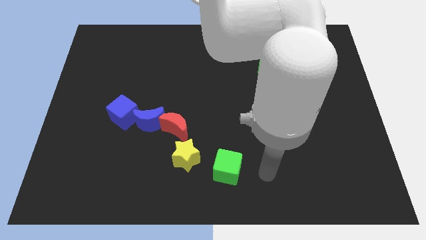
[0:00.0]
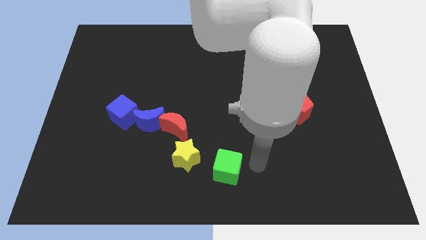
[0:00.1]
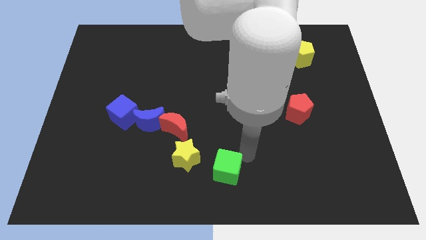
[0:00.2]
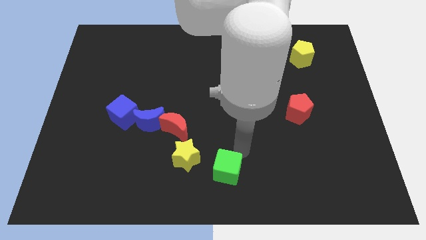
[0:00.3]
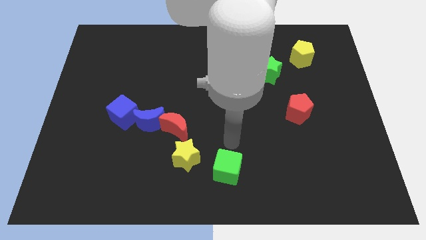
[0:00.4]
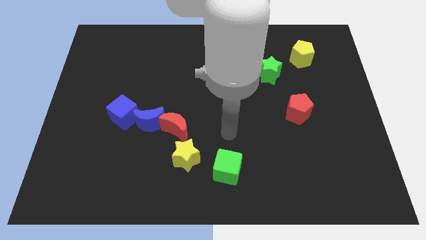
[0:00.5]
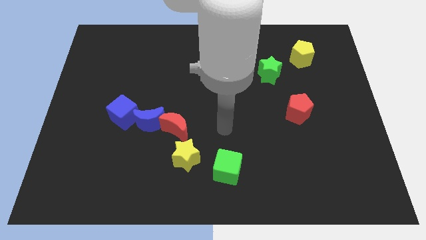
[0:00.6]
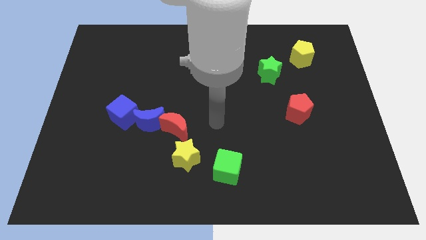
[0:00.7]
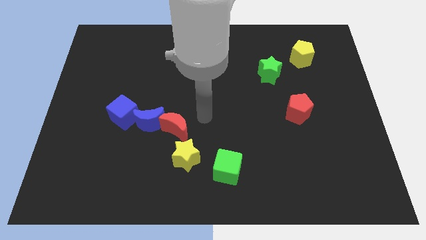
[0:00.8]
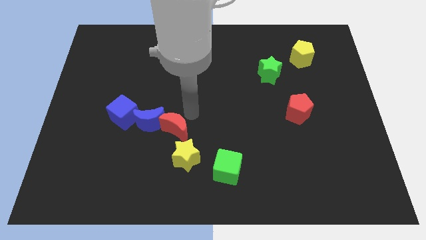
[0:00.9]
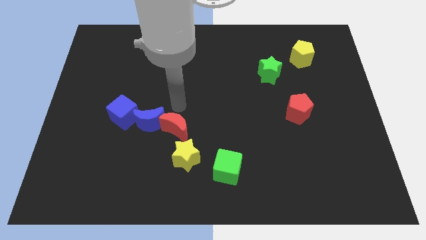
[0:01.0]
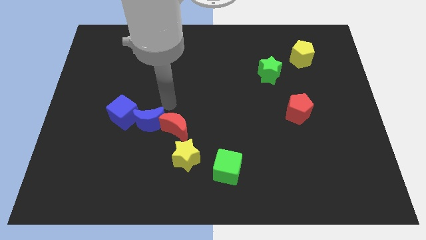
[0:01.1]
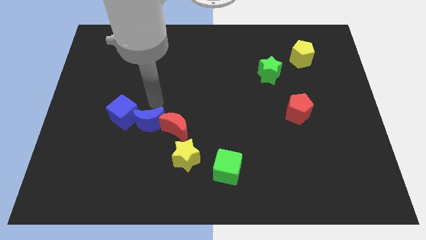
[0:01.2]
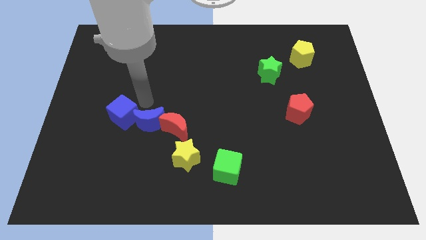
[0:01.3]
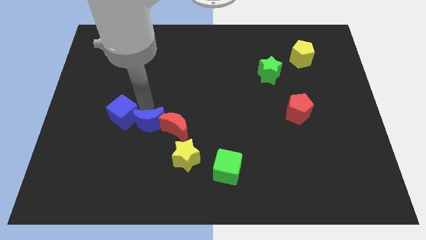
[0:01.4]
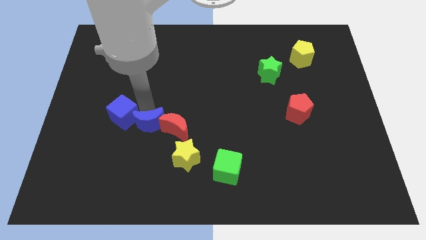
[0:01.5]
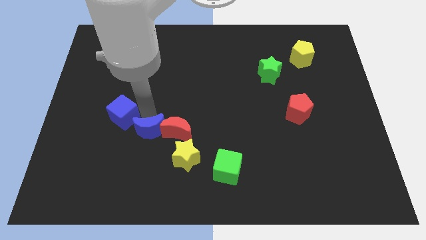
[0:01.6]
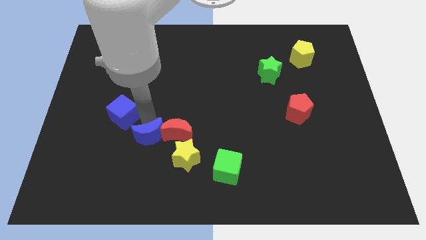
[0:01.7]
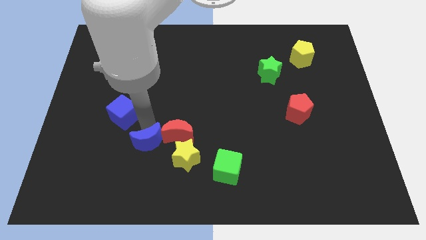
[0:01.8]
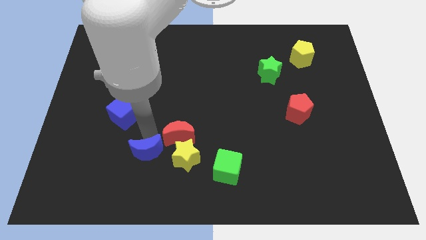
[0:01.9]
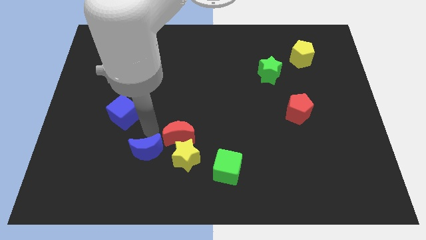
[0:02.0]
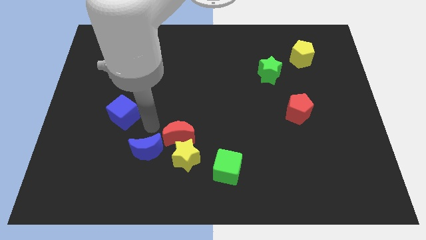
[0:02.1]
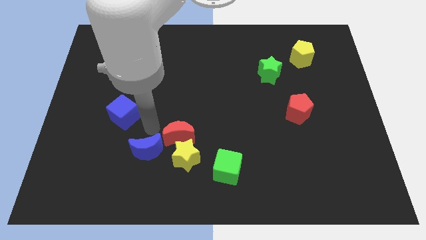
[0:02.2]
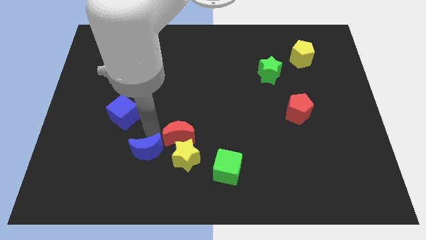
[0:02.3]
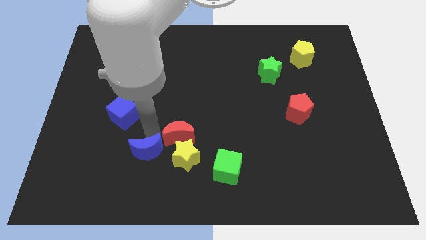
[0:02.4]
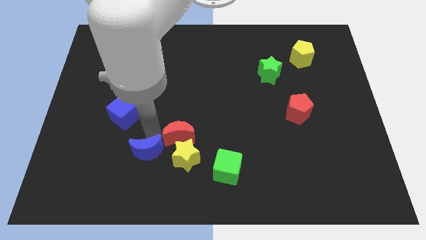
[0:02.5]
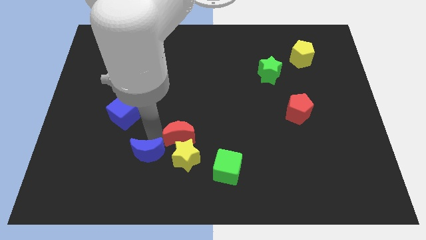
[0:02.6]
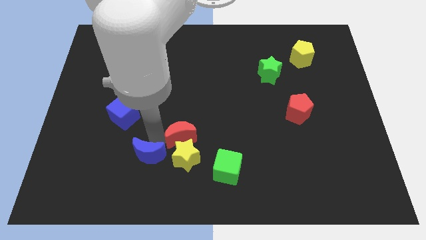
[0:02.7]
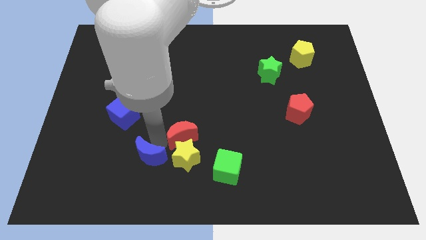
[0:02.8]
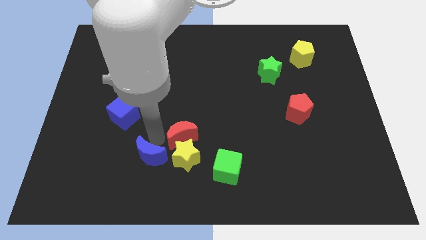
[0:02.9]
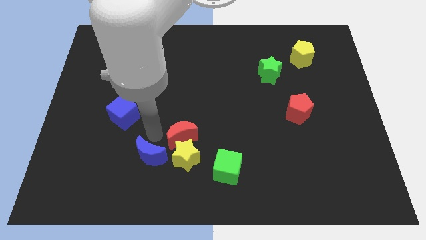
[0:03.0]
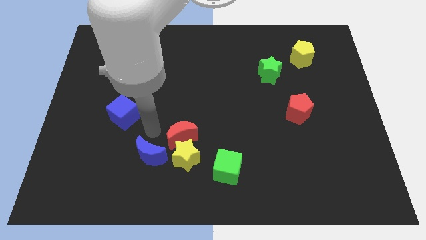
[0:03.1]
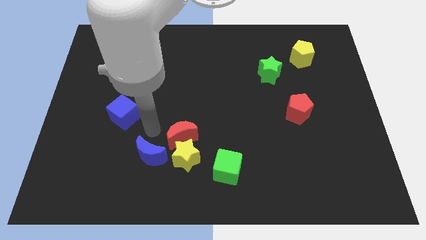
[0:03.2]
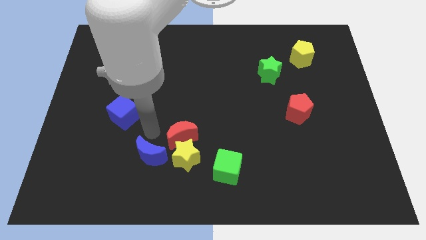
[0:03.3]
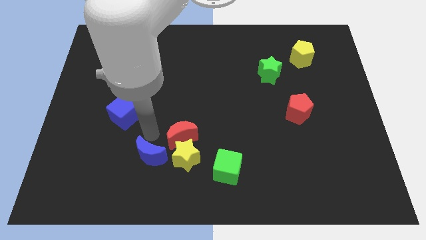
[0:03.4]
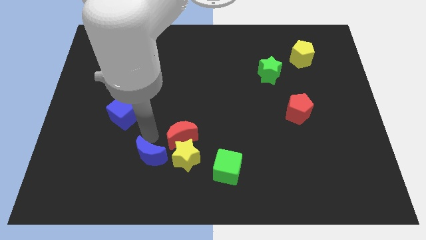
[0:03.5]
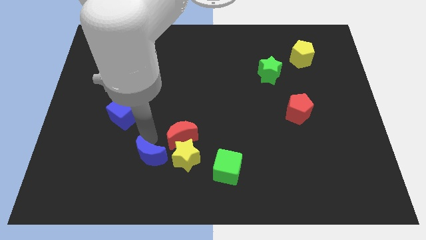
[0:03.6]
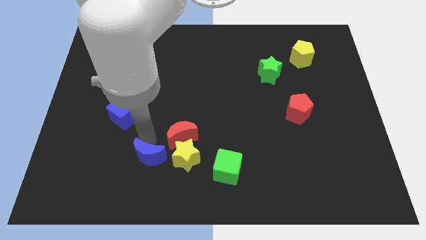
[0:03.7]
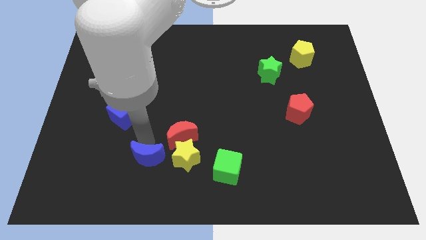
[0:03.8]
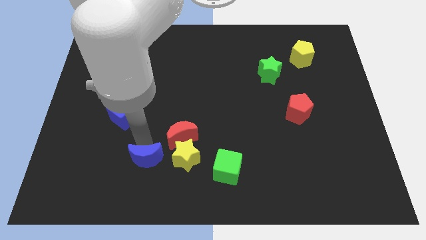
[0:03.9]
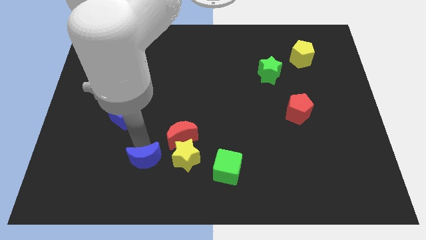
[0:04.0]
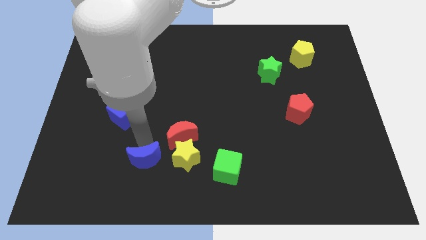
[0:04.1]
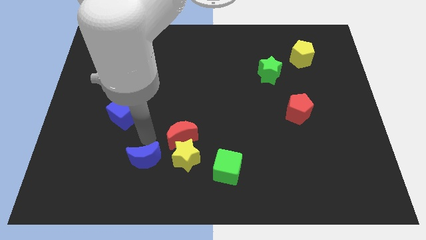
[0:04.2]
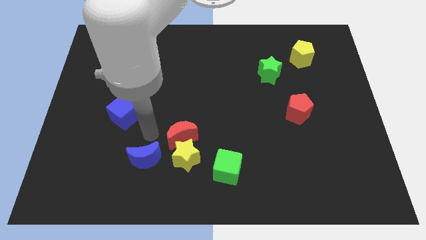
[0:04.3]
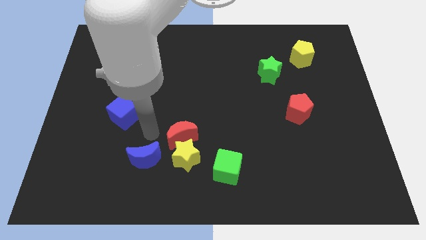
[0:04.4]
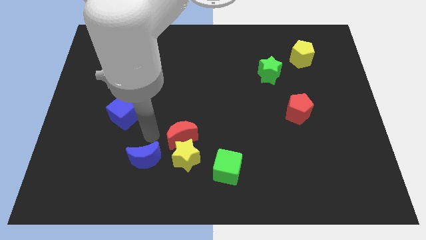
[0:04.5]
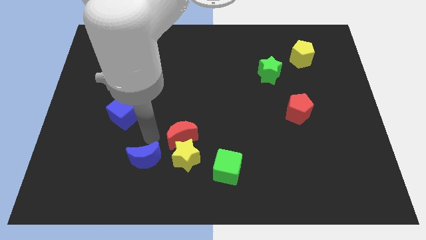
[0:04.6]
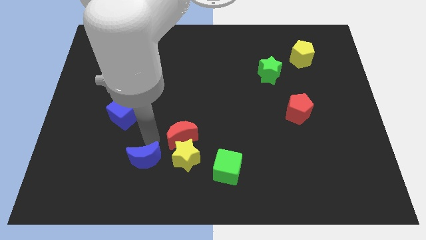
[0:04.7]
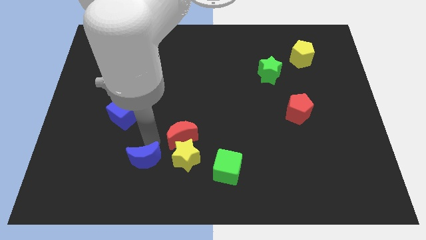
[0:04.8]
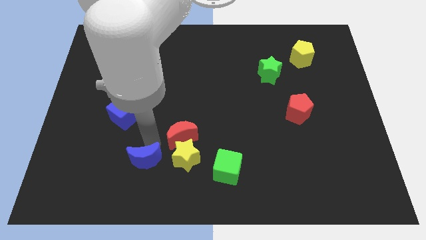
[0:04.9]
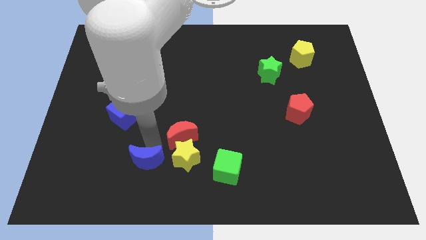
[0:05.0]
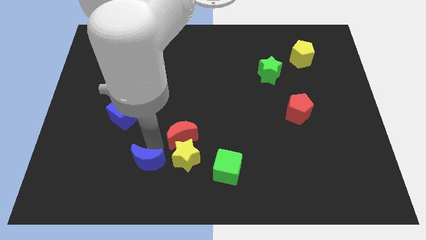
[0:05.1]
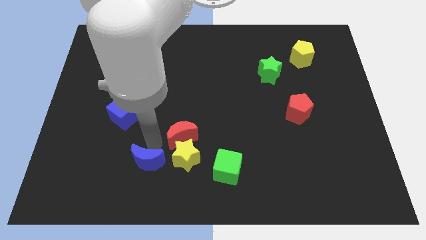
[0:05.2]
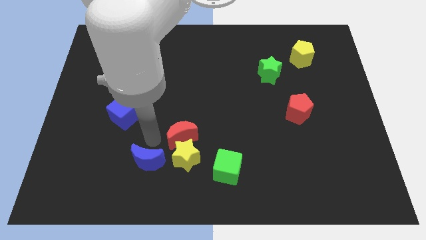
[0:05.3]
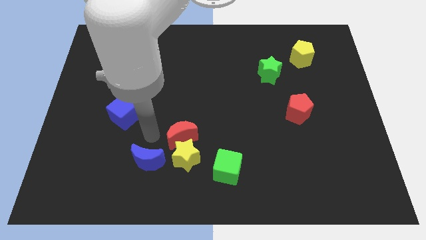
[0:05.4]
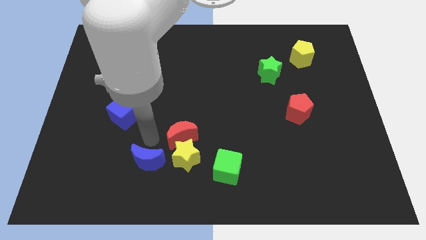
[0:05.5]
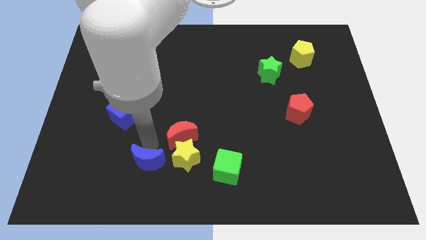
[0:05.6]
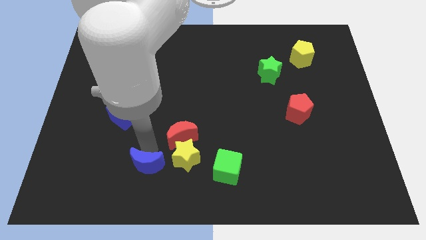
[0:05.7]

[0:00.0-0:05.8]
pull the blue moon apart from the red moon and blue cube

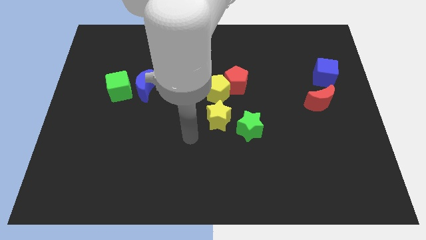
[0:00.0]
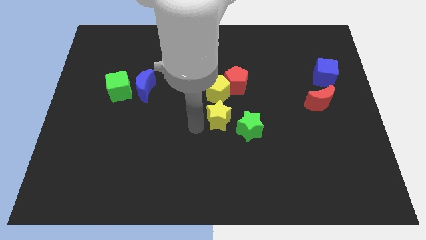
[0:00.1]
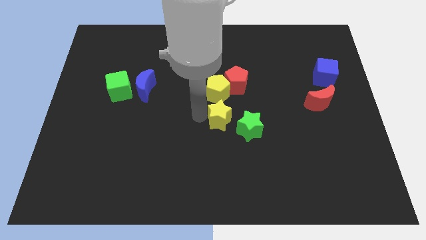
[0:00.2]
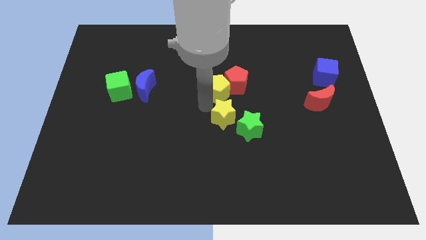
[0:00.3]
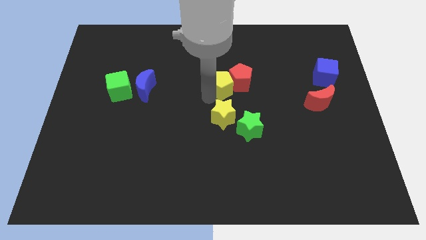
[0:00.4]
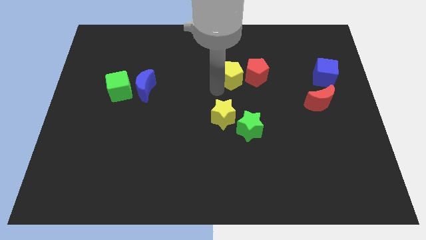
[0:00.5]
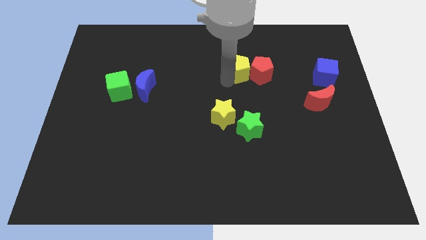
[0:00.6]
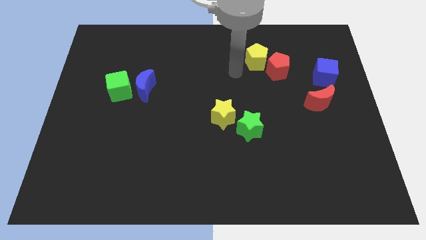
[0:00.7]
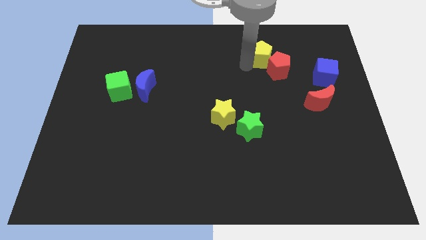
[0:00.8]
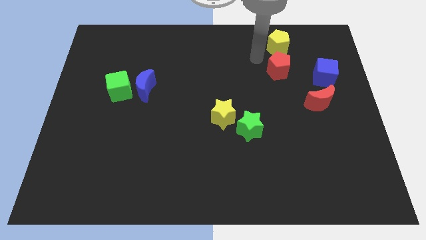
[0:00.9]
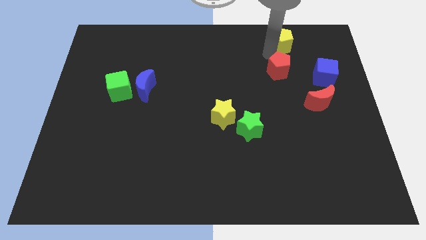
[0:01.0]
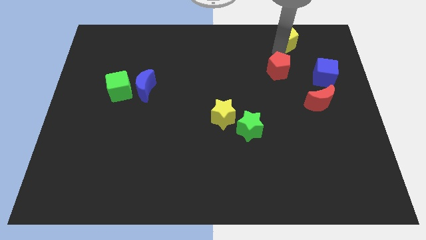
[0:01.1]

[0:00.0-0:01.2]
pull the red pentagon apart from the yellow pentagon

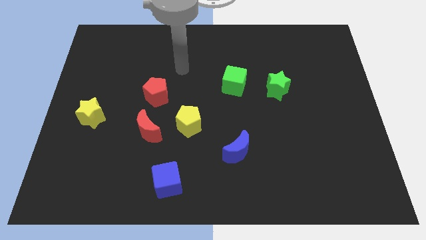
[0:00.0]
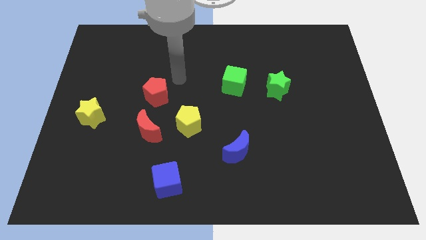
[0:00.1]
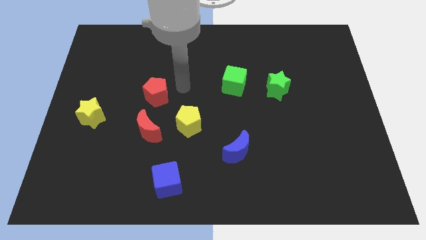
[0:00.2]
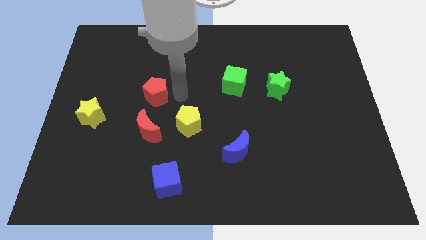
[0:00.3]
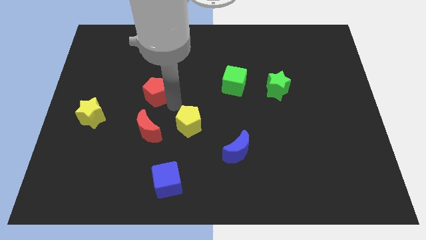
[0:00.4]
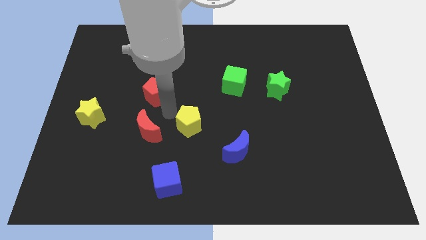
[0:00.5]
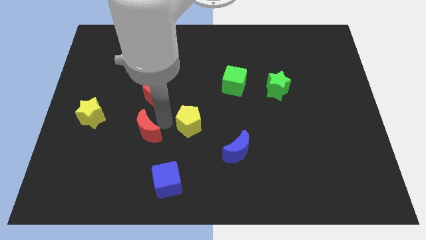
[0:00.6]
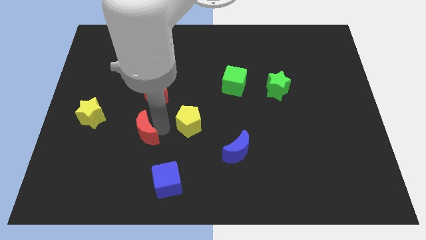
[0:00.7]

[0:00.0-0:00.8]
move the yellow pentagon away from the red moon

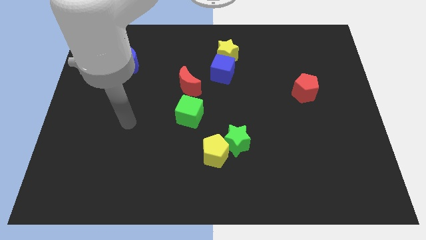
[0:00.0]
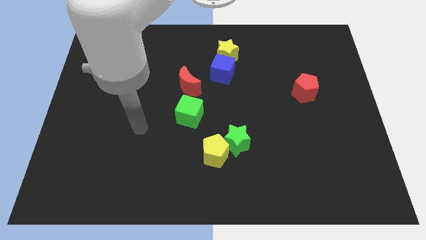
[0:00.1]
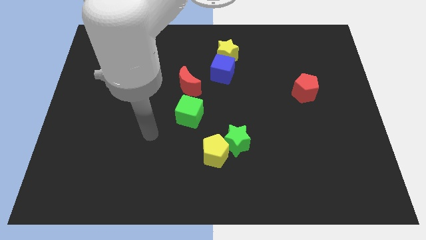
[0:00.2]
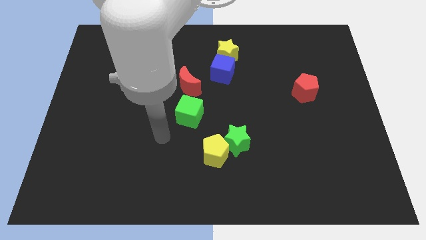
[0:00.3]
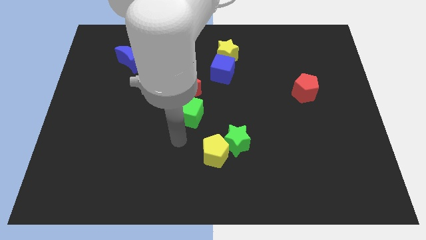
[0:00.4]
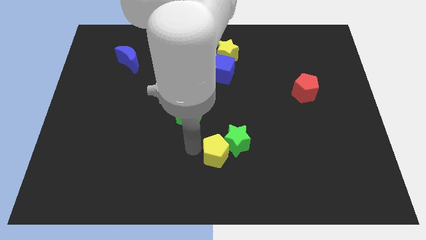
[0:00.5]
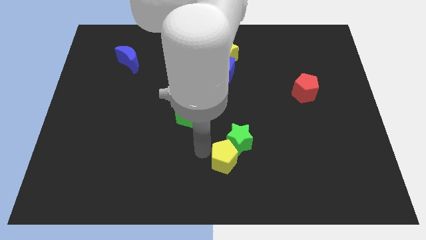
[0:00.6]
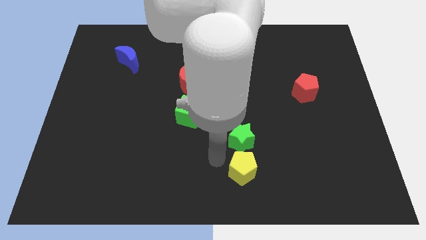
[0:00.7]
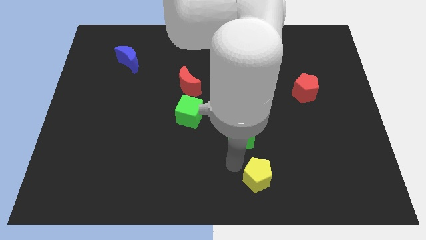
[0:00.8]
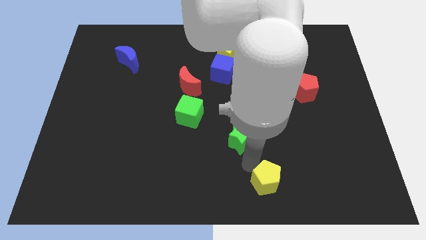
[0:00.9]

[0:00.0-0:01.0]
separate the green star from the yellow pentagon

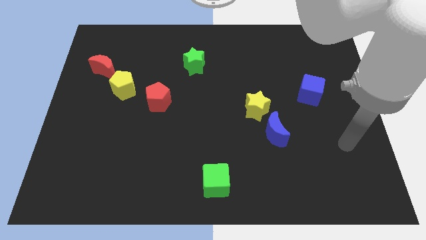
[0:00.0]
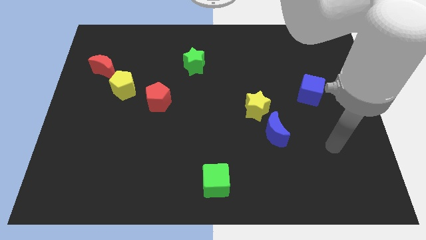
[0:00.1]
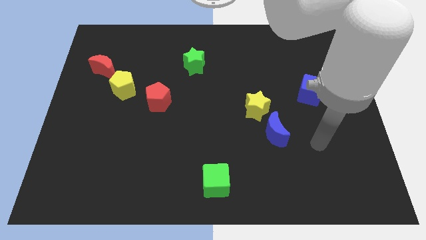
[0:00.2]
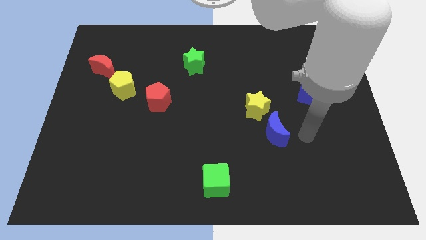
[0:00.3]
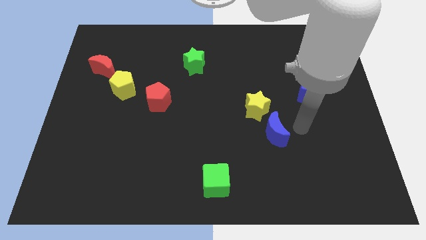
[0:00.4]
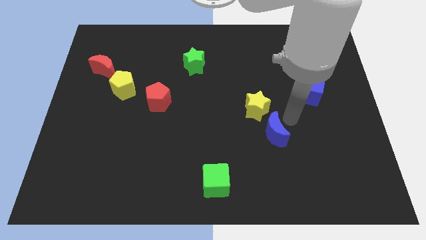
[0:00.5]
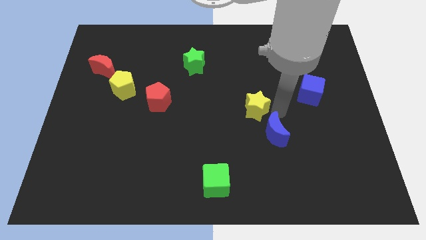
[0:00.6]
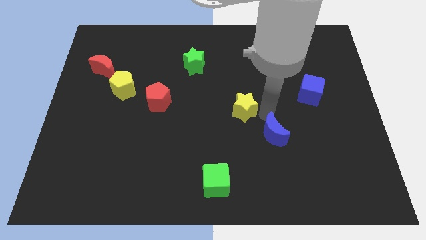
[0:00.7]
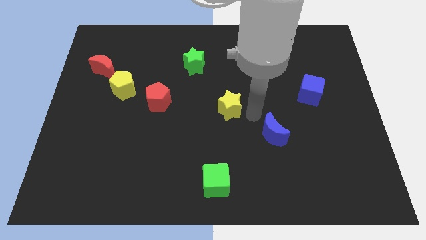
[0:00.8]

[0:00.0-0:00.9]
separate the blue moon from the yellow star
